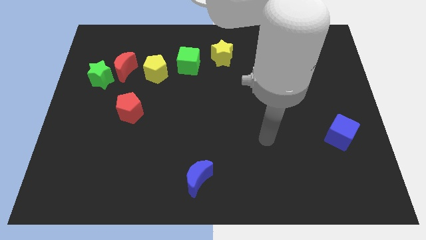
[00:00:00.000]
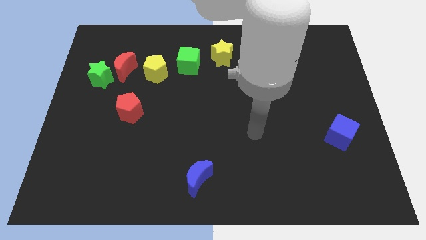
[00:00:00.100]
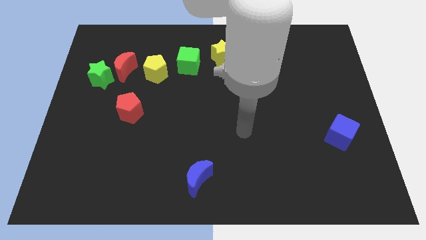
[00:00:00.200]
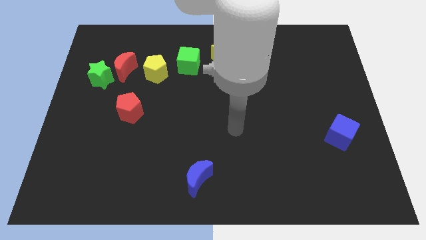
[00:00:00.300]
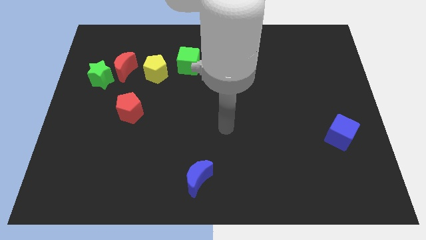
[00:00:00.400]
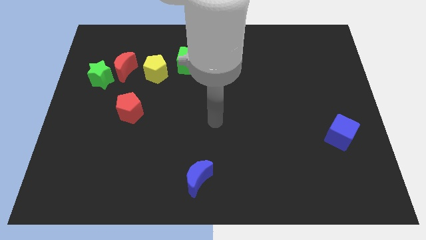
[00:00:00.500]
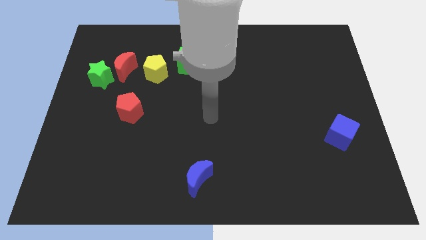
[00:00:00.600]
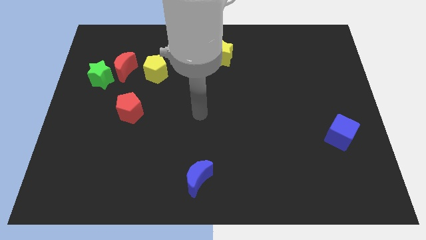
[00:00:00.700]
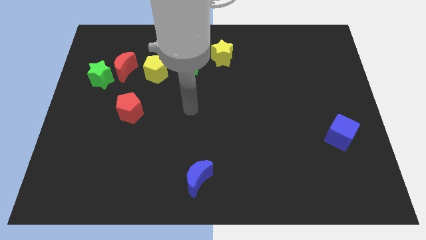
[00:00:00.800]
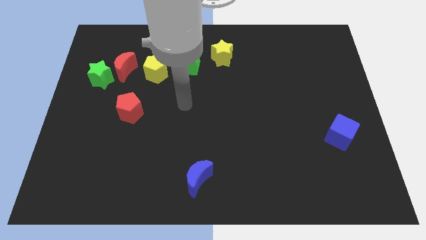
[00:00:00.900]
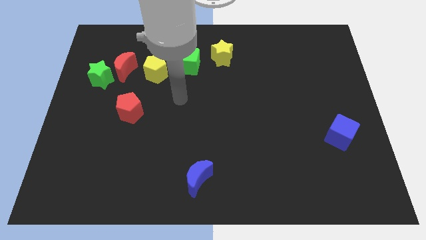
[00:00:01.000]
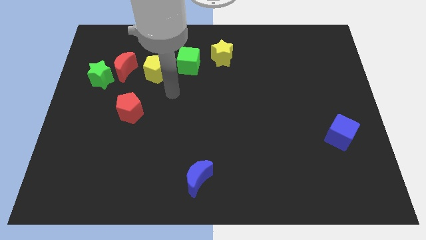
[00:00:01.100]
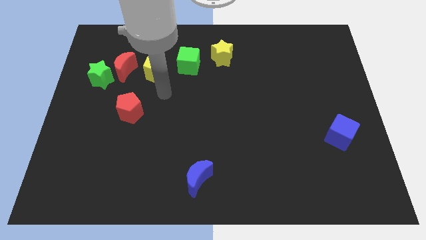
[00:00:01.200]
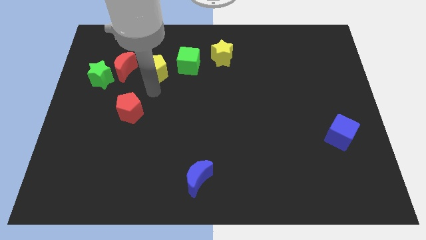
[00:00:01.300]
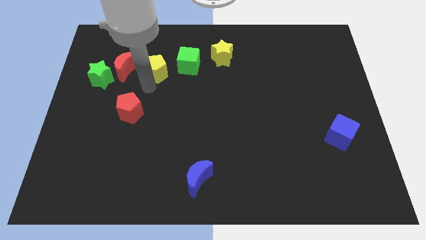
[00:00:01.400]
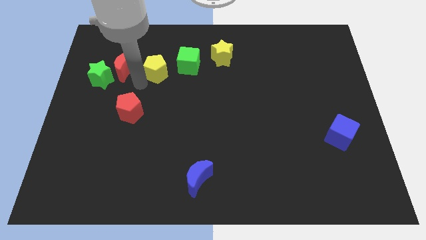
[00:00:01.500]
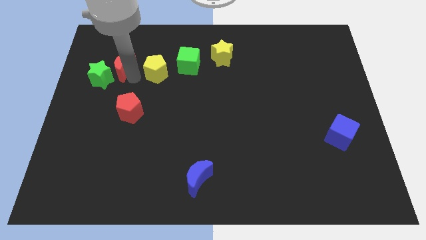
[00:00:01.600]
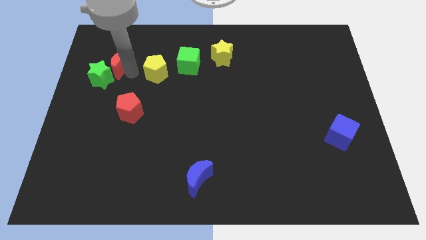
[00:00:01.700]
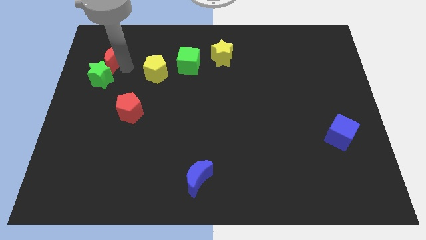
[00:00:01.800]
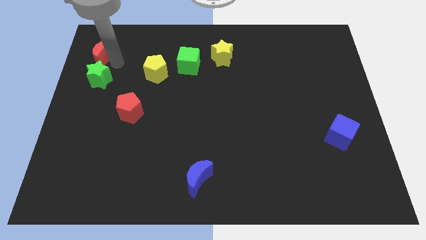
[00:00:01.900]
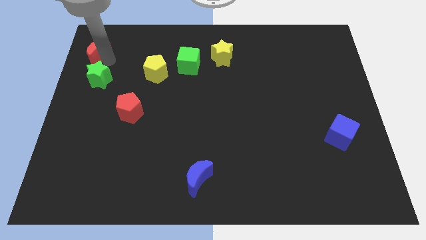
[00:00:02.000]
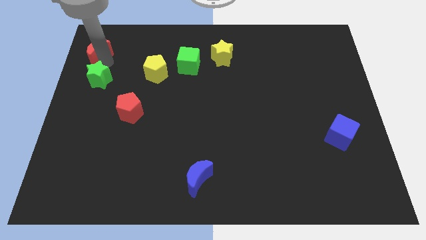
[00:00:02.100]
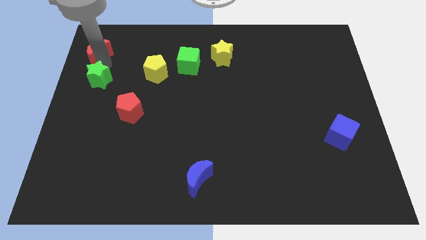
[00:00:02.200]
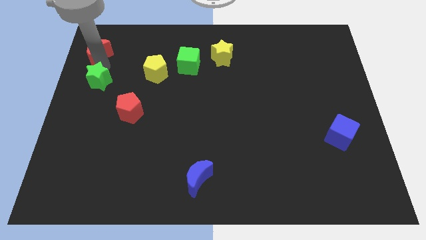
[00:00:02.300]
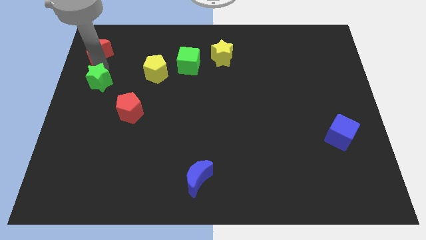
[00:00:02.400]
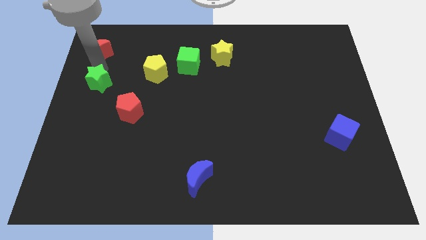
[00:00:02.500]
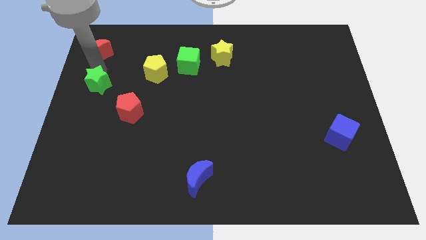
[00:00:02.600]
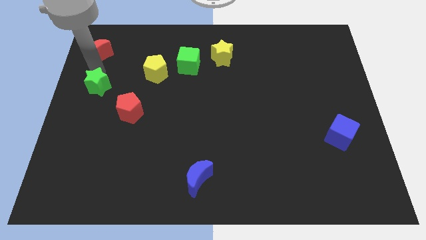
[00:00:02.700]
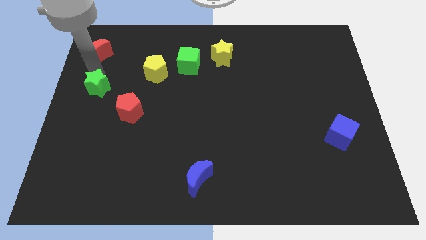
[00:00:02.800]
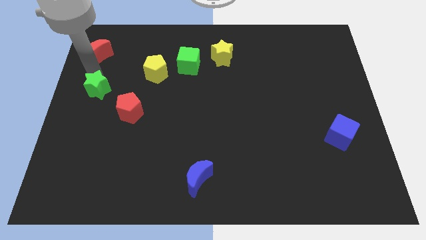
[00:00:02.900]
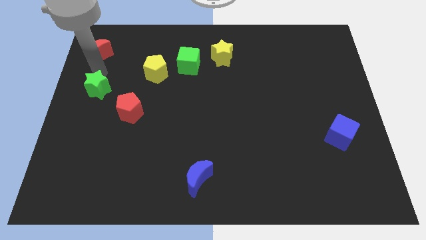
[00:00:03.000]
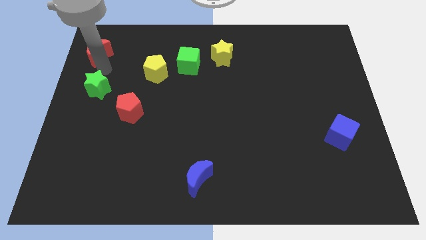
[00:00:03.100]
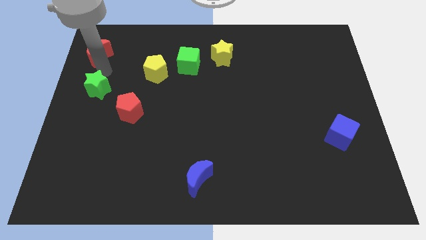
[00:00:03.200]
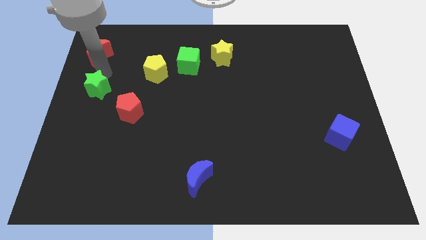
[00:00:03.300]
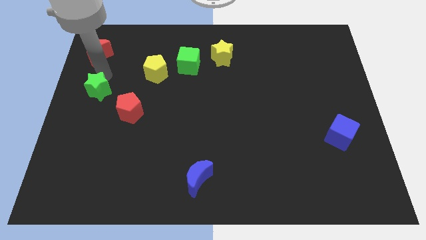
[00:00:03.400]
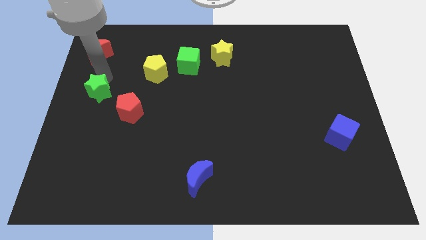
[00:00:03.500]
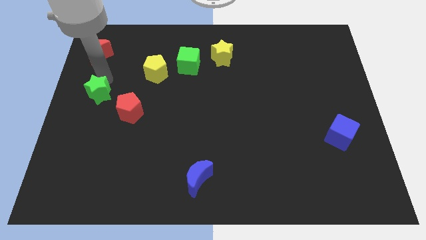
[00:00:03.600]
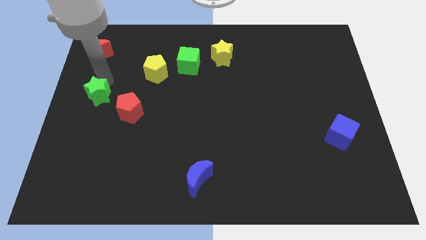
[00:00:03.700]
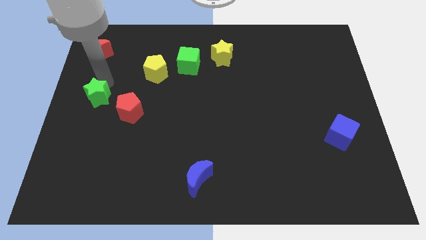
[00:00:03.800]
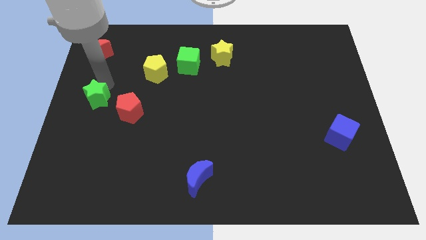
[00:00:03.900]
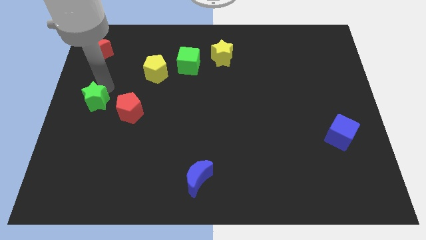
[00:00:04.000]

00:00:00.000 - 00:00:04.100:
slide the green star a little down

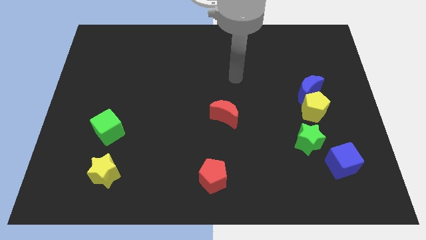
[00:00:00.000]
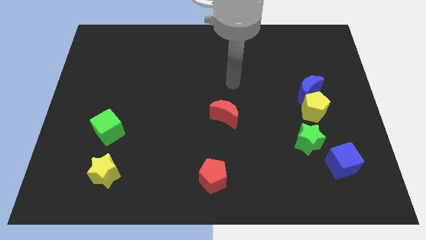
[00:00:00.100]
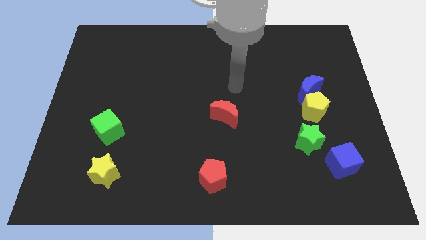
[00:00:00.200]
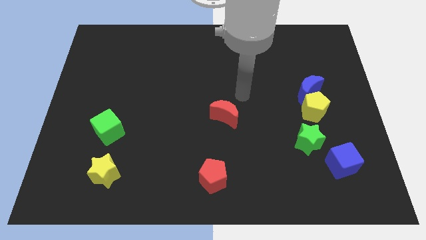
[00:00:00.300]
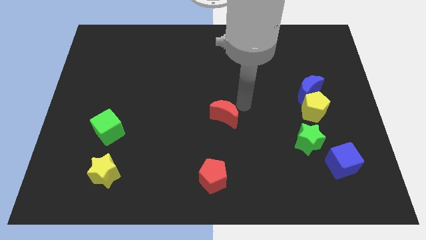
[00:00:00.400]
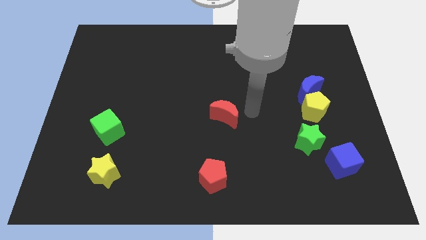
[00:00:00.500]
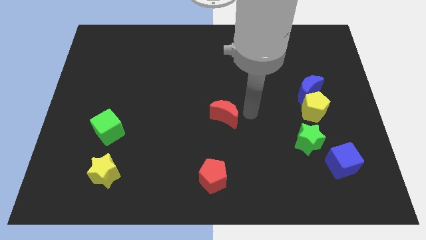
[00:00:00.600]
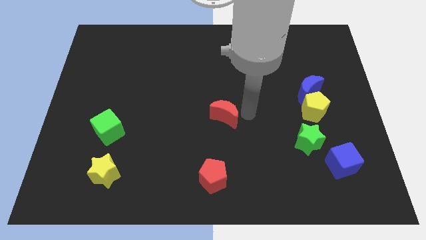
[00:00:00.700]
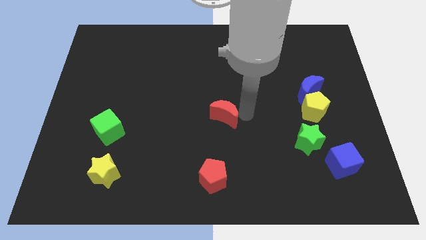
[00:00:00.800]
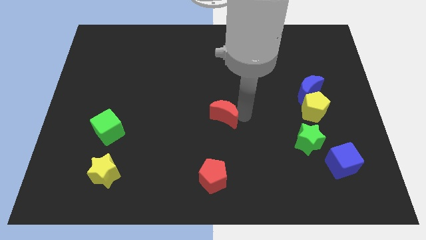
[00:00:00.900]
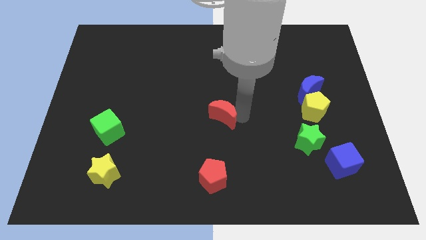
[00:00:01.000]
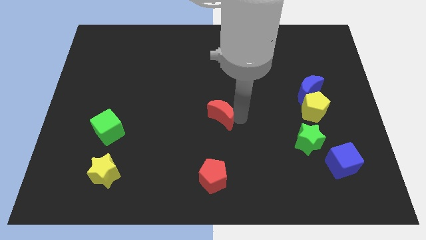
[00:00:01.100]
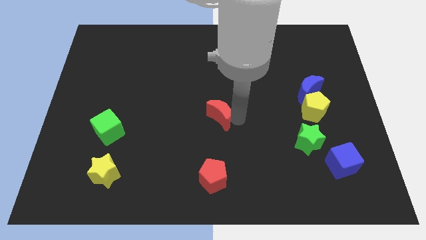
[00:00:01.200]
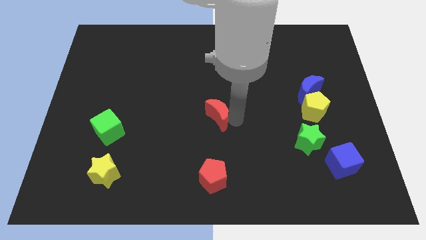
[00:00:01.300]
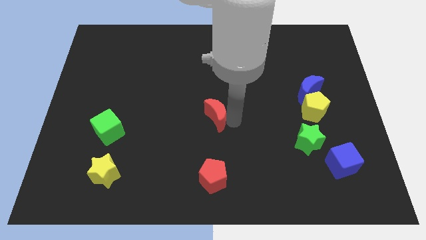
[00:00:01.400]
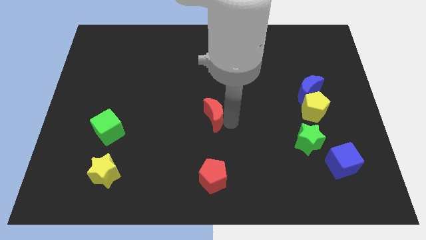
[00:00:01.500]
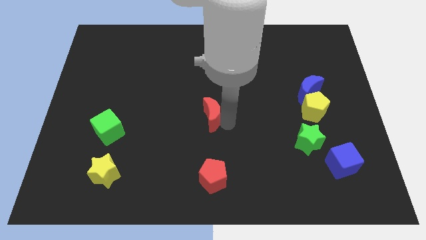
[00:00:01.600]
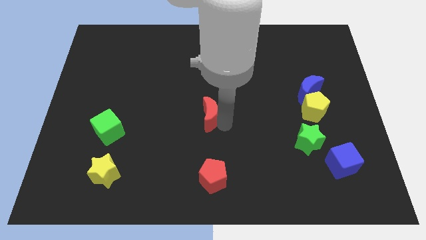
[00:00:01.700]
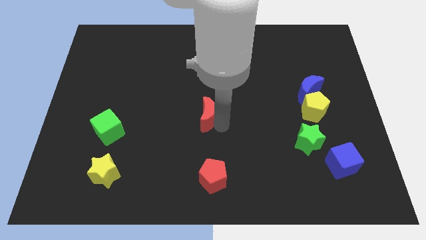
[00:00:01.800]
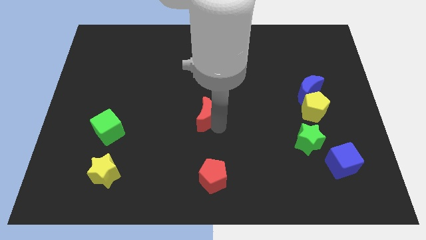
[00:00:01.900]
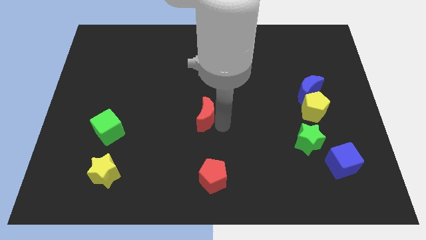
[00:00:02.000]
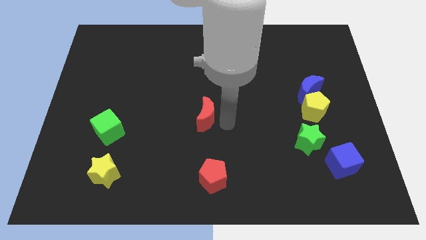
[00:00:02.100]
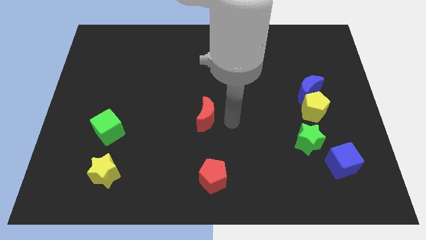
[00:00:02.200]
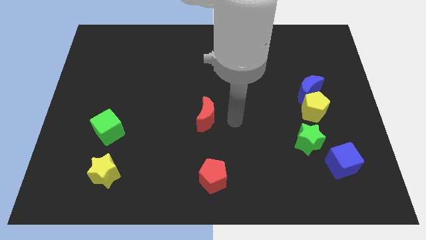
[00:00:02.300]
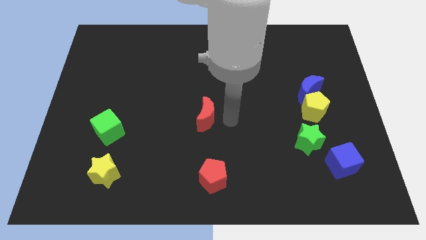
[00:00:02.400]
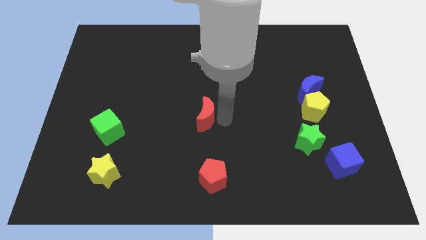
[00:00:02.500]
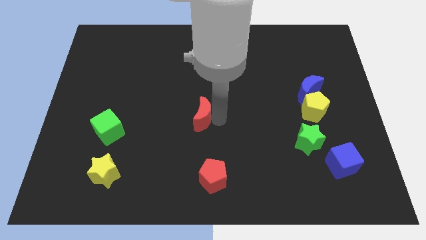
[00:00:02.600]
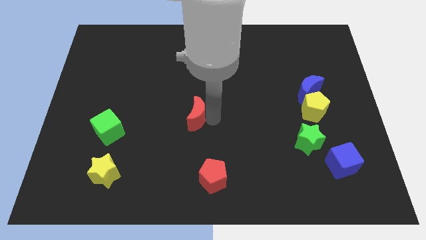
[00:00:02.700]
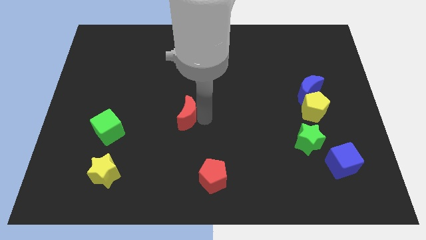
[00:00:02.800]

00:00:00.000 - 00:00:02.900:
slightly move the red moon left

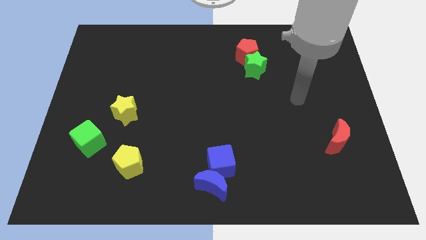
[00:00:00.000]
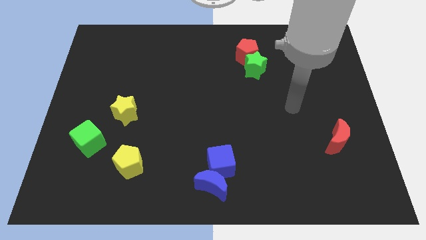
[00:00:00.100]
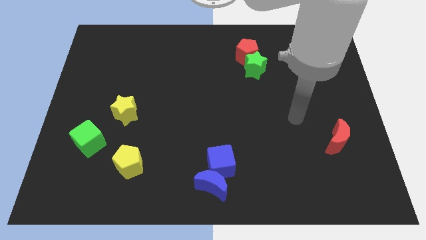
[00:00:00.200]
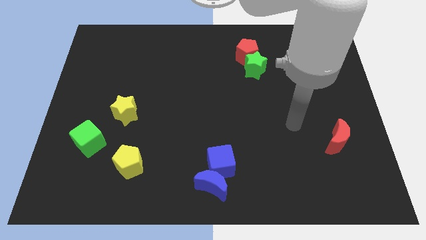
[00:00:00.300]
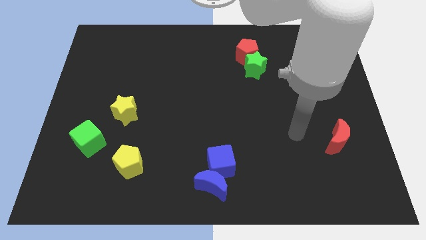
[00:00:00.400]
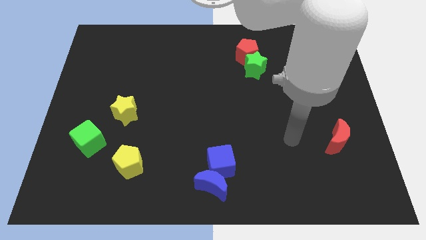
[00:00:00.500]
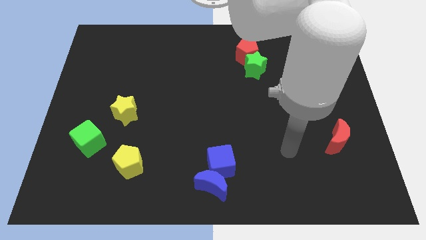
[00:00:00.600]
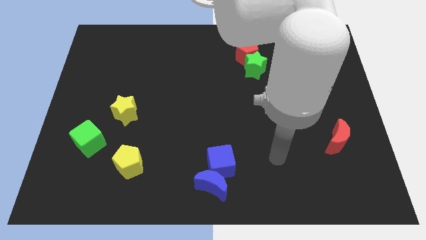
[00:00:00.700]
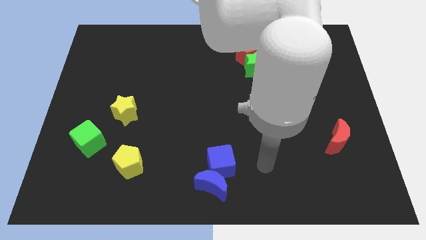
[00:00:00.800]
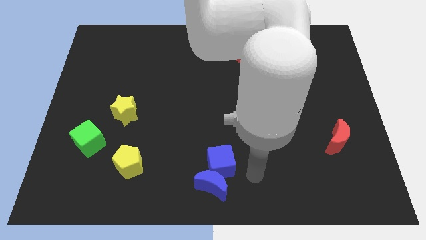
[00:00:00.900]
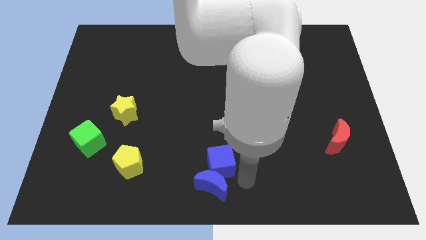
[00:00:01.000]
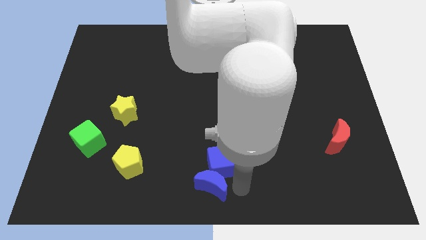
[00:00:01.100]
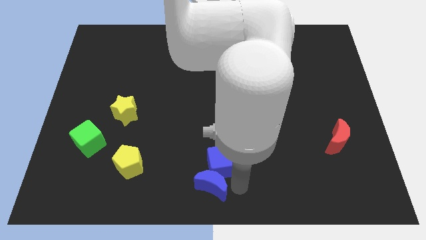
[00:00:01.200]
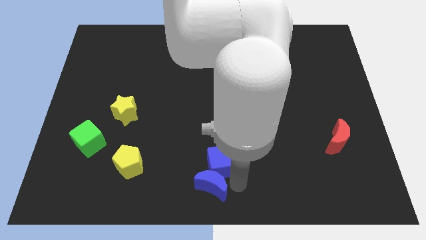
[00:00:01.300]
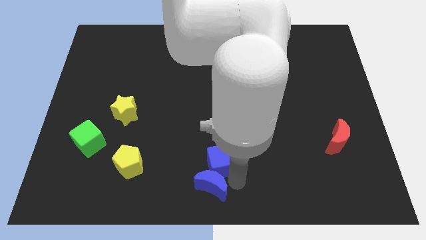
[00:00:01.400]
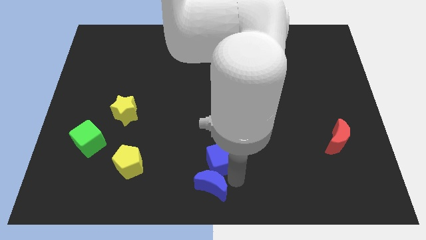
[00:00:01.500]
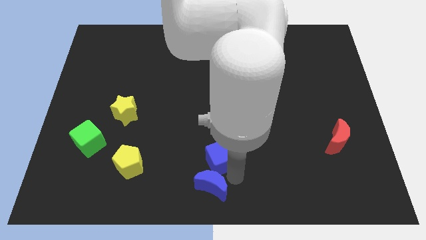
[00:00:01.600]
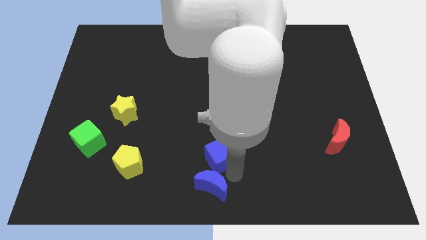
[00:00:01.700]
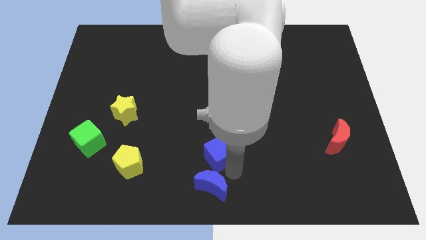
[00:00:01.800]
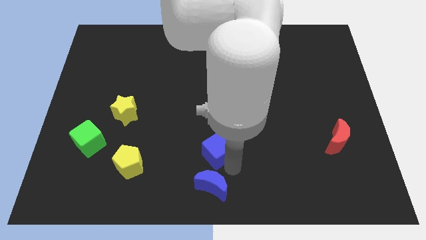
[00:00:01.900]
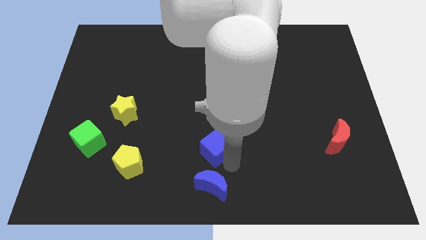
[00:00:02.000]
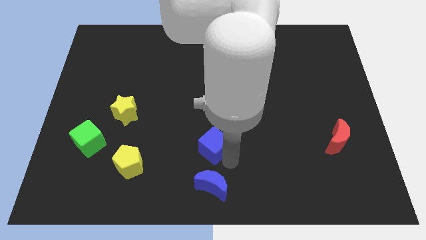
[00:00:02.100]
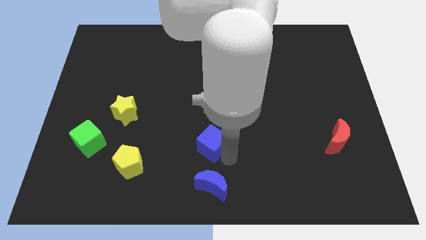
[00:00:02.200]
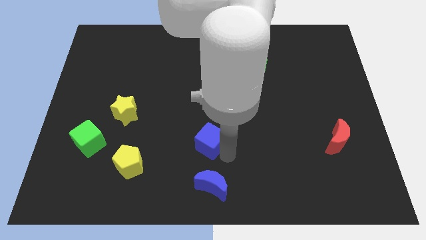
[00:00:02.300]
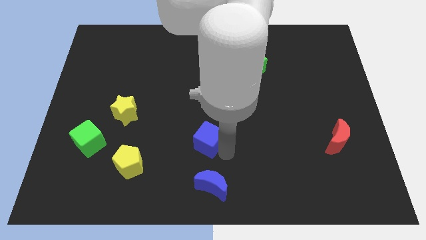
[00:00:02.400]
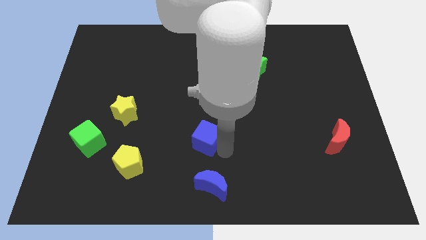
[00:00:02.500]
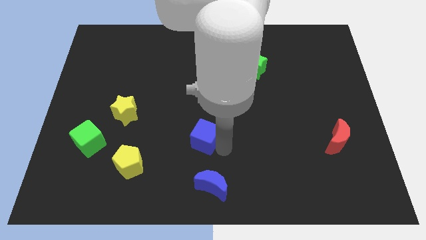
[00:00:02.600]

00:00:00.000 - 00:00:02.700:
slide the blue cube somewhat diagonally upwards and left
